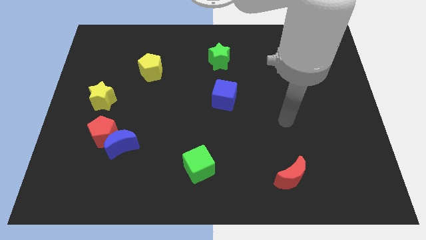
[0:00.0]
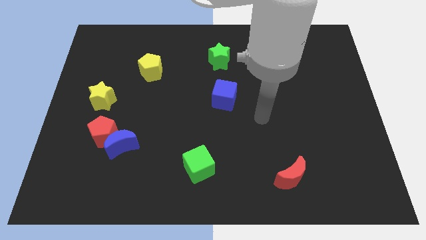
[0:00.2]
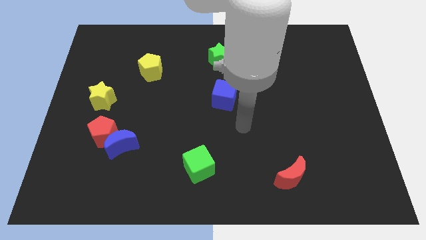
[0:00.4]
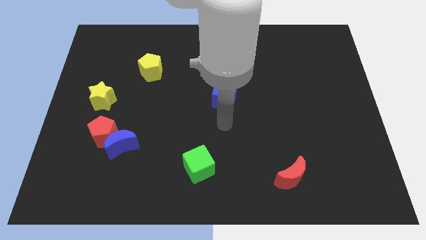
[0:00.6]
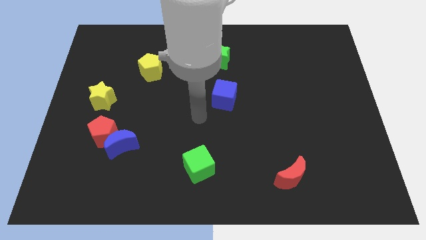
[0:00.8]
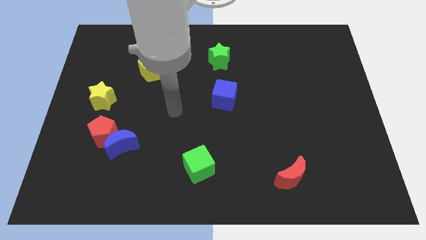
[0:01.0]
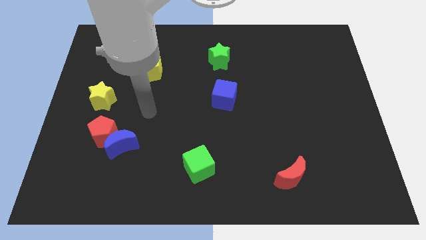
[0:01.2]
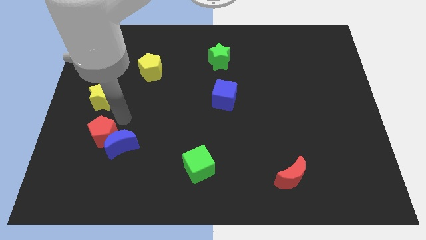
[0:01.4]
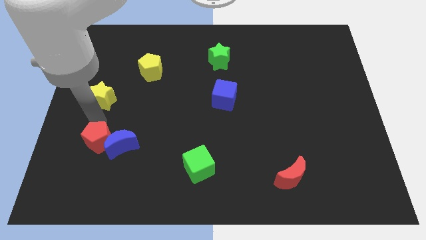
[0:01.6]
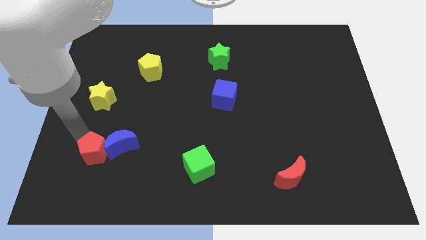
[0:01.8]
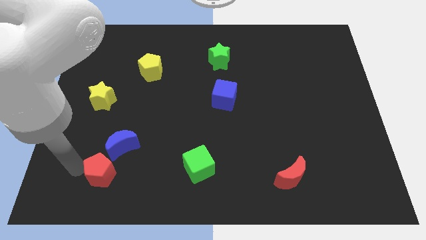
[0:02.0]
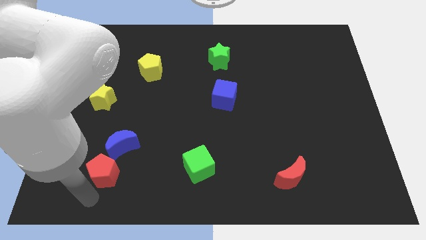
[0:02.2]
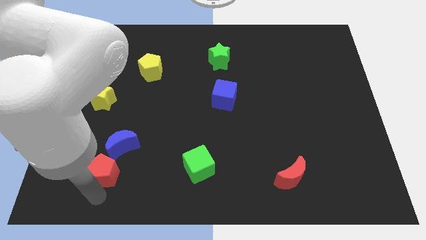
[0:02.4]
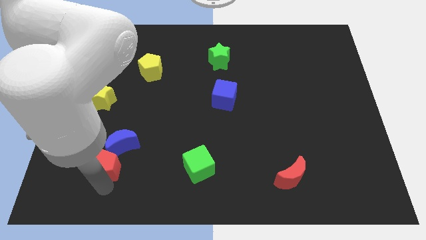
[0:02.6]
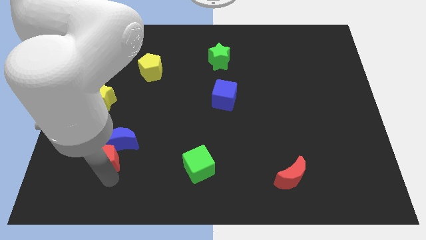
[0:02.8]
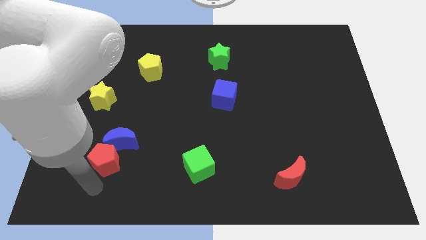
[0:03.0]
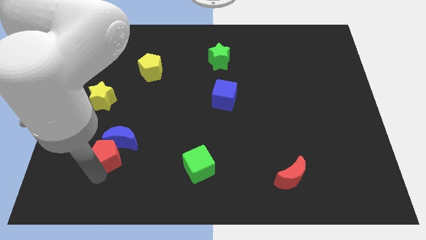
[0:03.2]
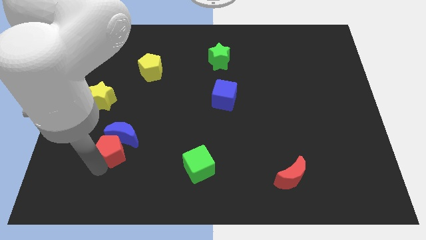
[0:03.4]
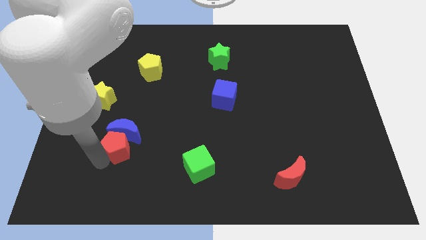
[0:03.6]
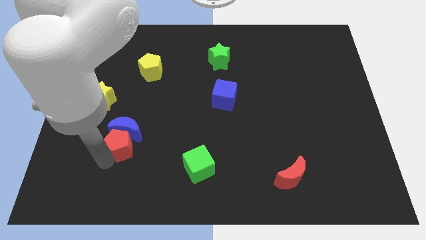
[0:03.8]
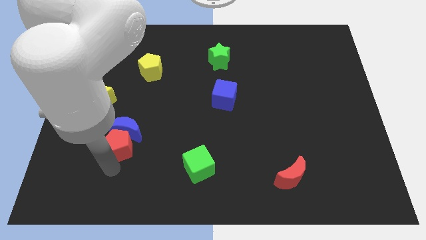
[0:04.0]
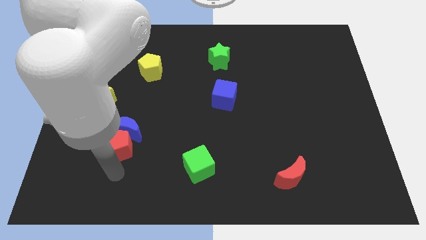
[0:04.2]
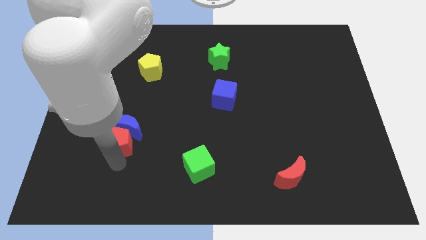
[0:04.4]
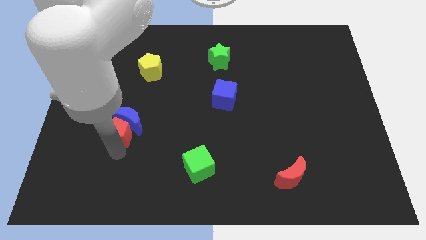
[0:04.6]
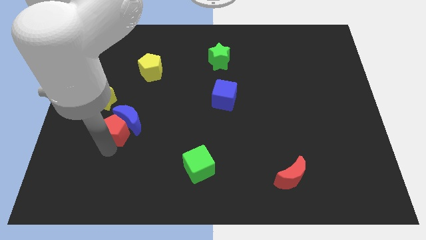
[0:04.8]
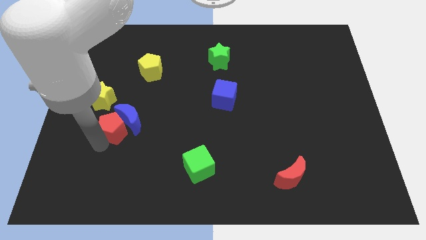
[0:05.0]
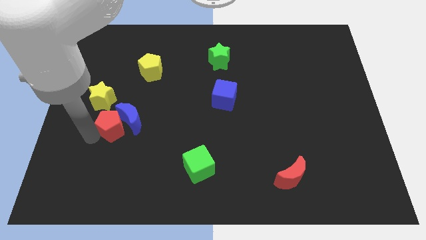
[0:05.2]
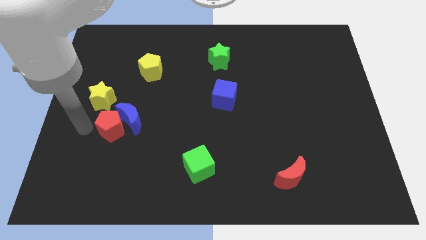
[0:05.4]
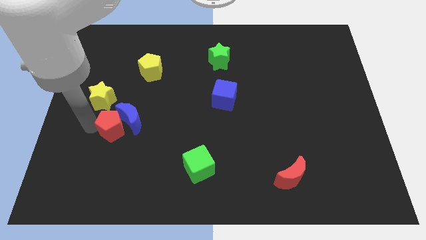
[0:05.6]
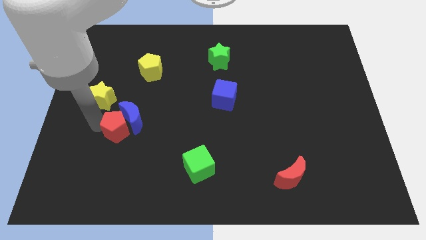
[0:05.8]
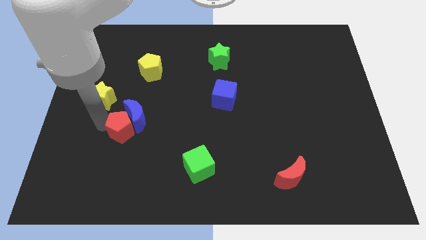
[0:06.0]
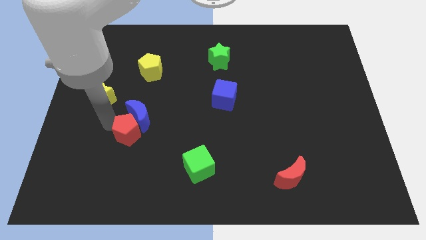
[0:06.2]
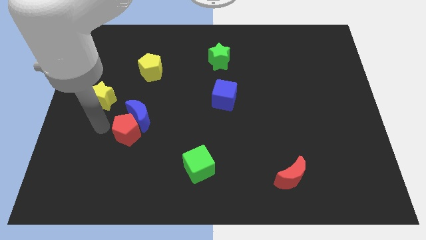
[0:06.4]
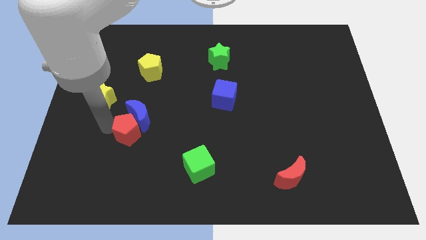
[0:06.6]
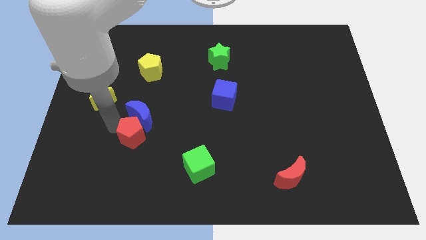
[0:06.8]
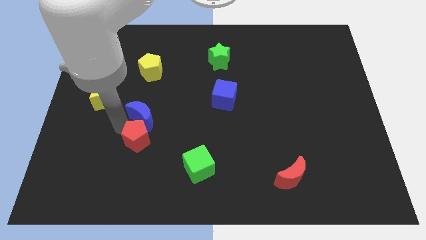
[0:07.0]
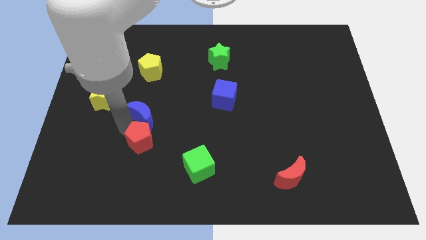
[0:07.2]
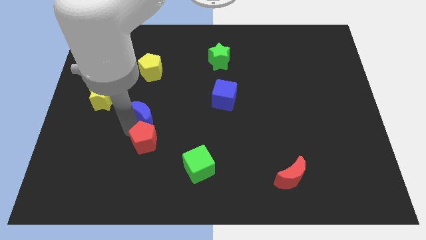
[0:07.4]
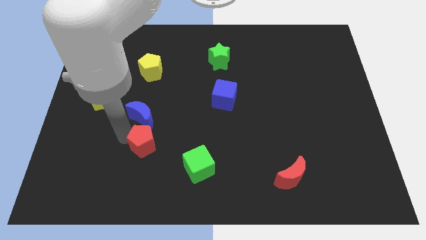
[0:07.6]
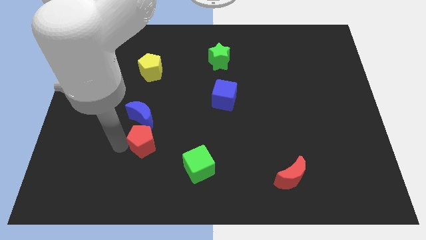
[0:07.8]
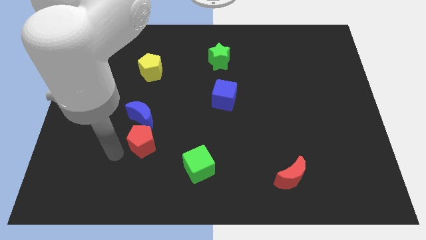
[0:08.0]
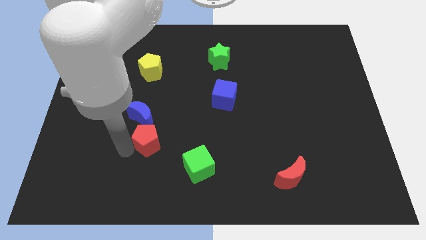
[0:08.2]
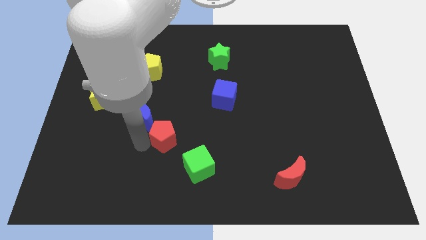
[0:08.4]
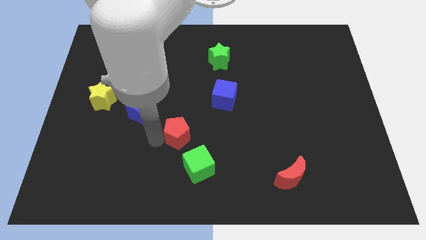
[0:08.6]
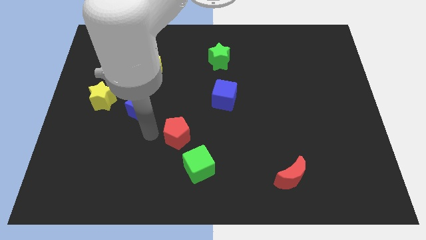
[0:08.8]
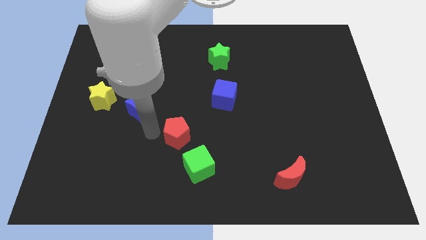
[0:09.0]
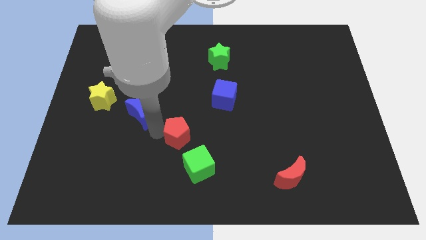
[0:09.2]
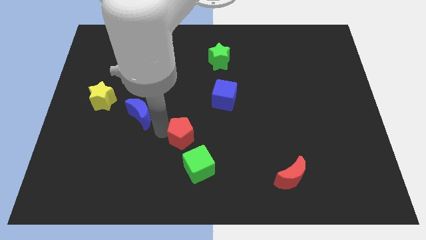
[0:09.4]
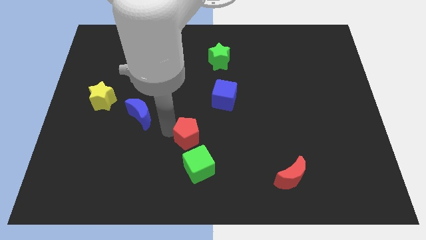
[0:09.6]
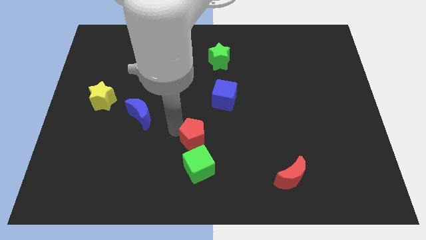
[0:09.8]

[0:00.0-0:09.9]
move the red pentagon right

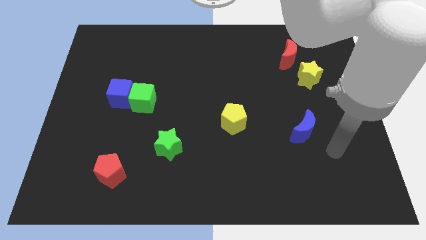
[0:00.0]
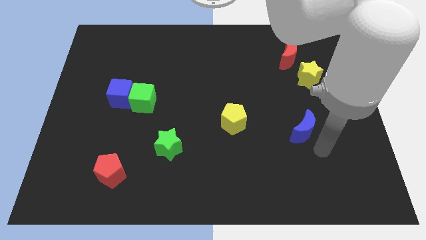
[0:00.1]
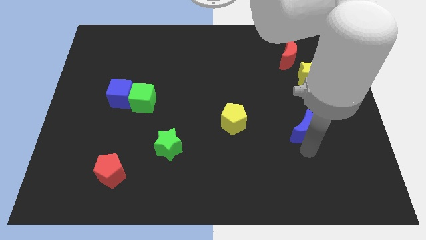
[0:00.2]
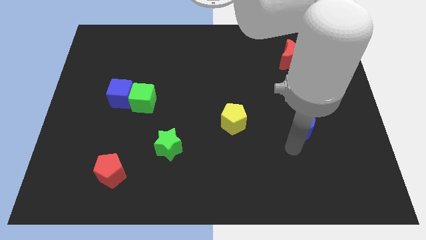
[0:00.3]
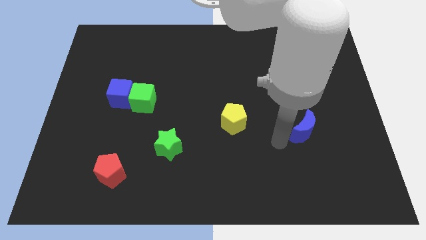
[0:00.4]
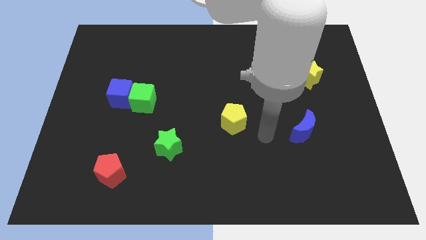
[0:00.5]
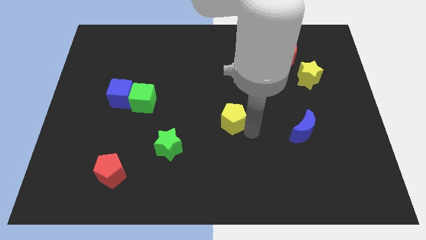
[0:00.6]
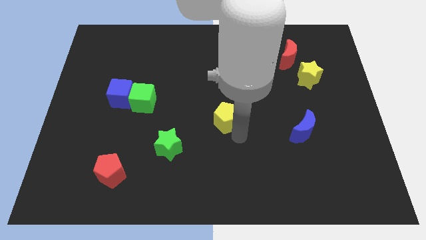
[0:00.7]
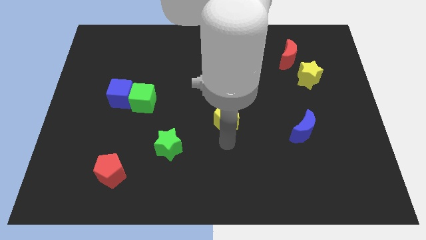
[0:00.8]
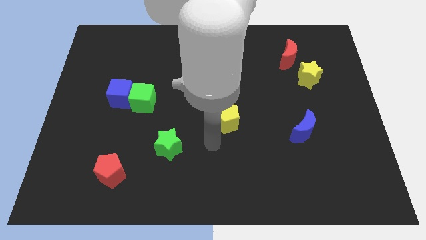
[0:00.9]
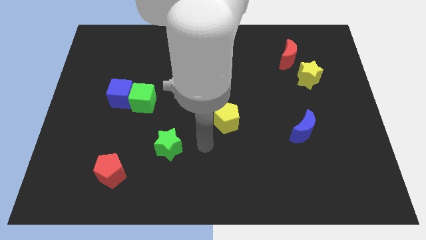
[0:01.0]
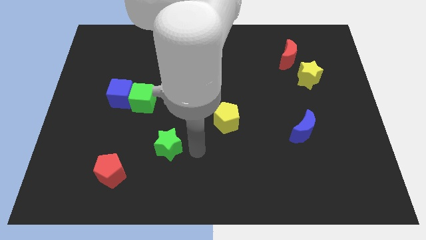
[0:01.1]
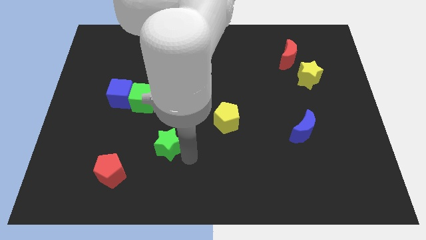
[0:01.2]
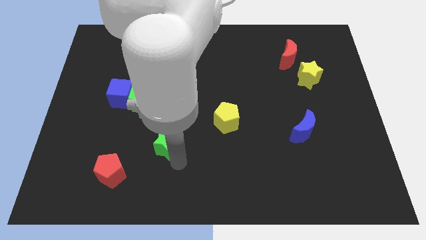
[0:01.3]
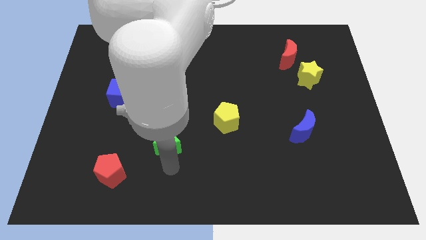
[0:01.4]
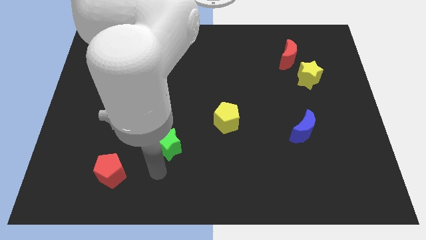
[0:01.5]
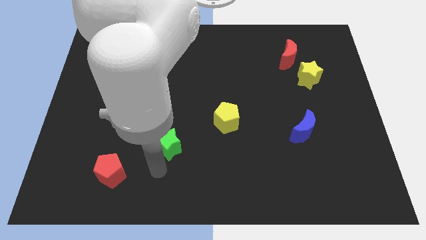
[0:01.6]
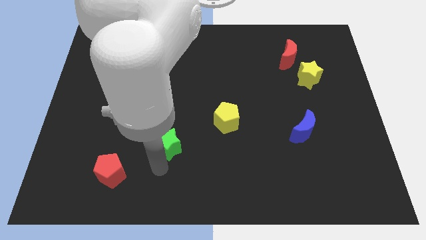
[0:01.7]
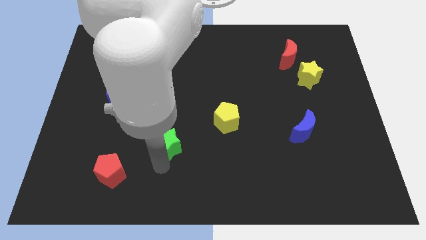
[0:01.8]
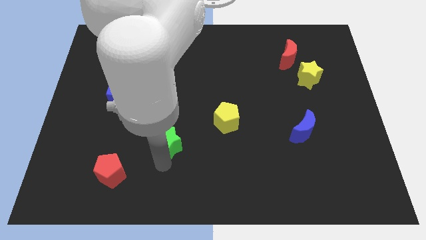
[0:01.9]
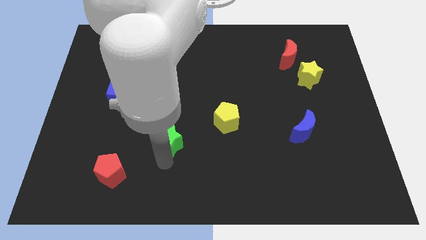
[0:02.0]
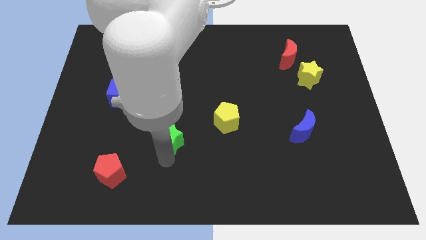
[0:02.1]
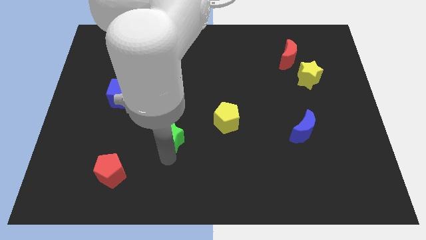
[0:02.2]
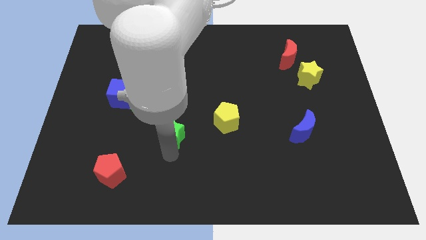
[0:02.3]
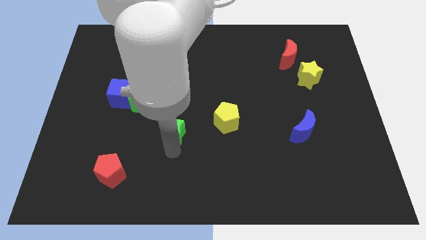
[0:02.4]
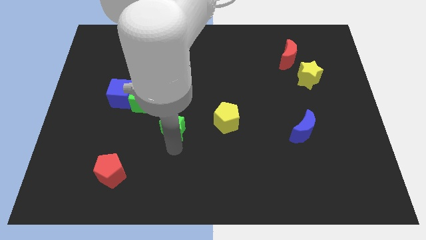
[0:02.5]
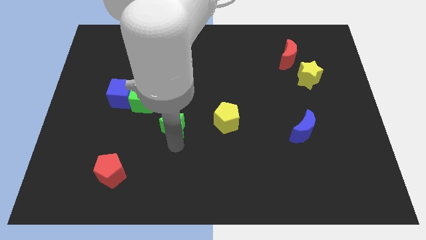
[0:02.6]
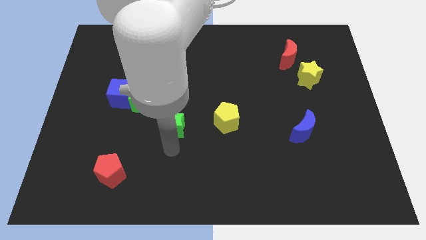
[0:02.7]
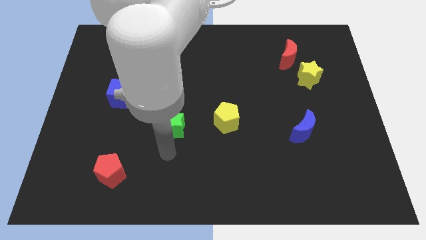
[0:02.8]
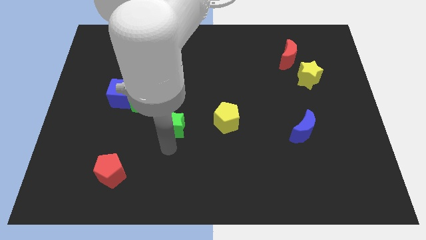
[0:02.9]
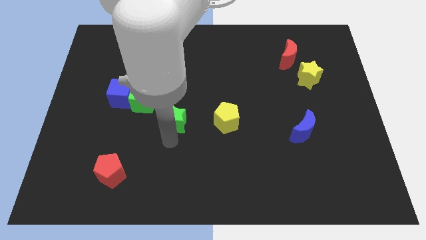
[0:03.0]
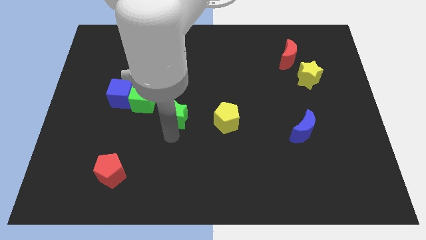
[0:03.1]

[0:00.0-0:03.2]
push the green star a little bit up
